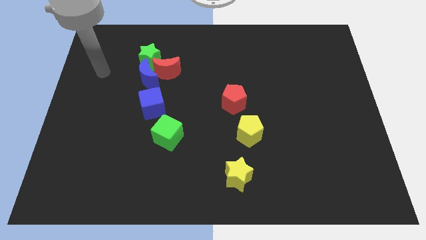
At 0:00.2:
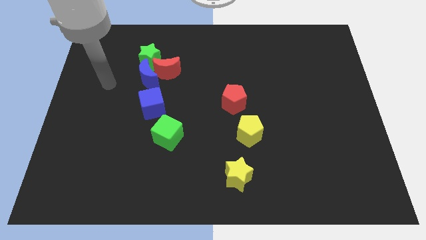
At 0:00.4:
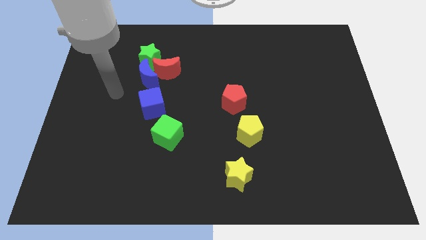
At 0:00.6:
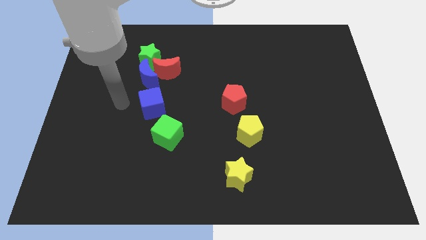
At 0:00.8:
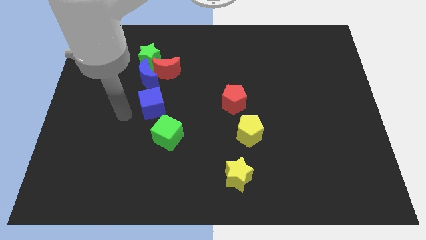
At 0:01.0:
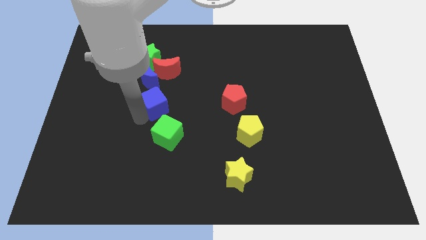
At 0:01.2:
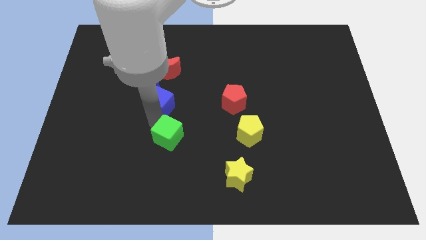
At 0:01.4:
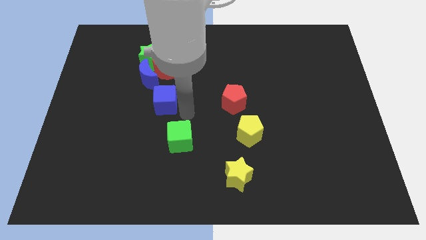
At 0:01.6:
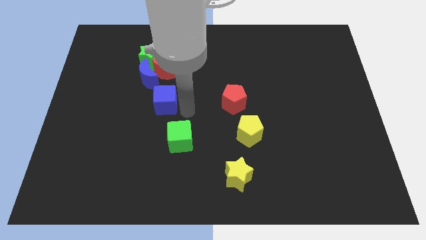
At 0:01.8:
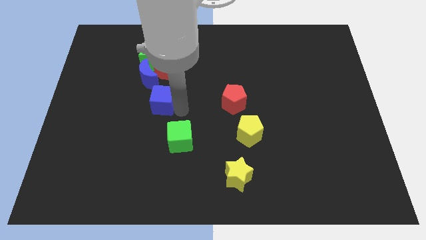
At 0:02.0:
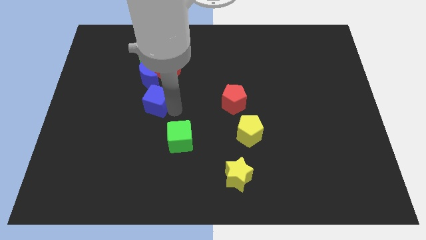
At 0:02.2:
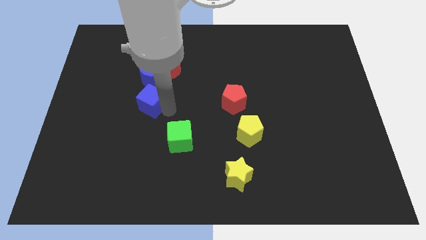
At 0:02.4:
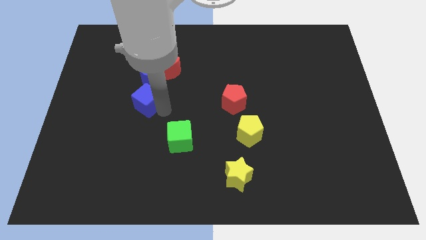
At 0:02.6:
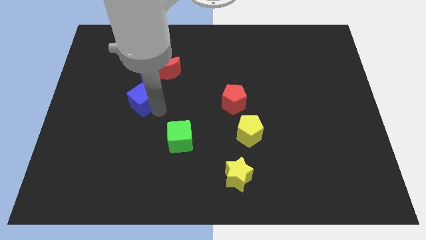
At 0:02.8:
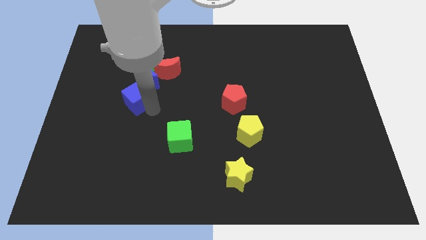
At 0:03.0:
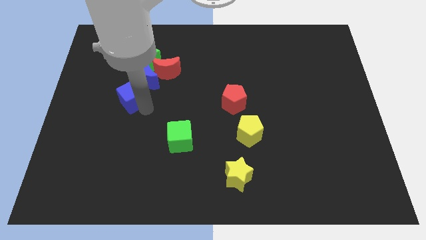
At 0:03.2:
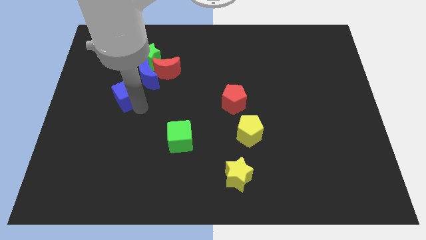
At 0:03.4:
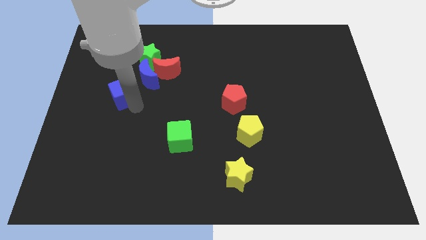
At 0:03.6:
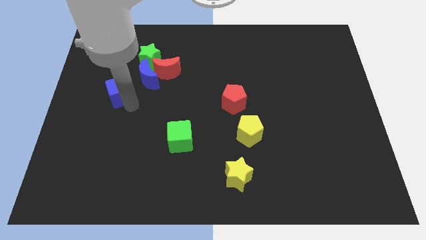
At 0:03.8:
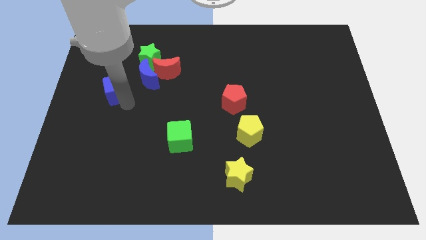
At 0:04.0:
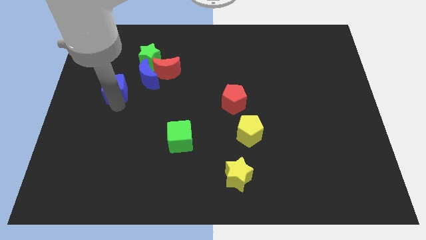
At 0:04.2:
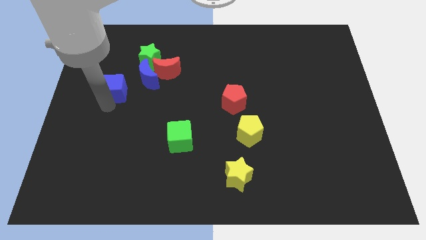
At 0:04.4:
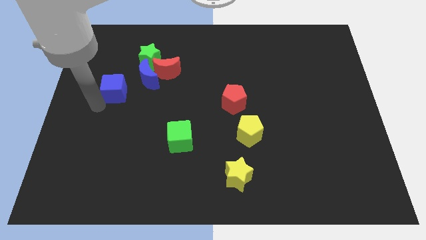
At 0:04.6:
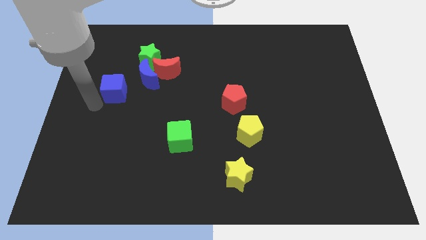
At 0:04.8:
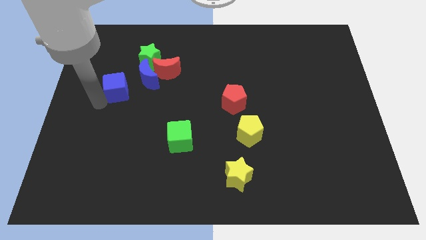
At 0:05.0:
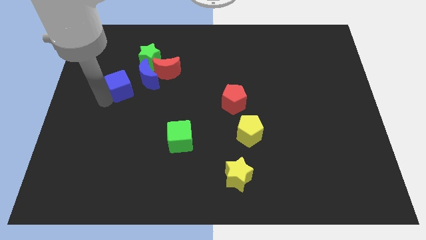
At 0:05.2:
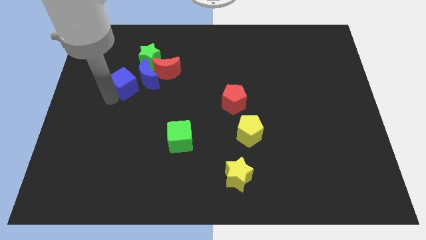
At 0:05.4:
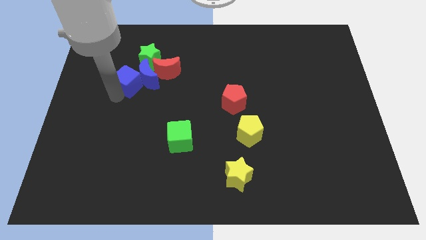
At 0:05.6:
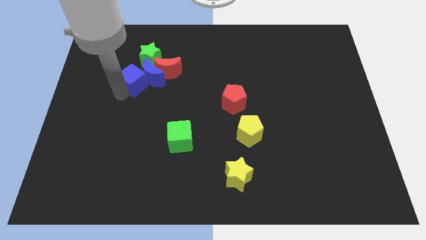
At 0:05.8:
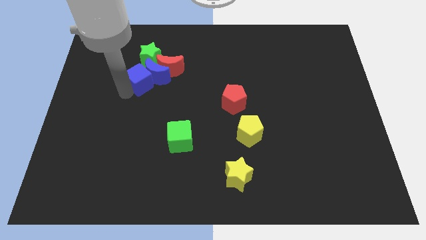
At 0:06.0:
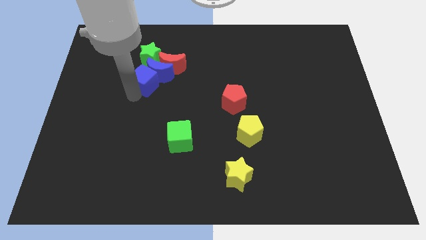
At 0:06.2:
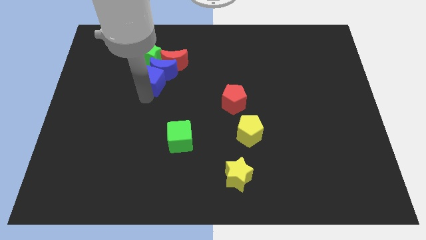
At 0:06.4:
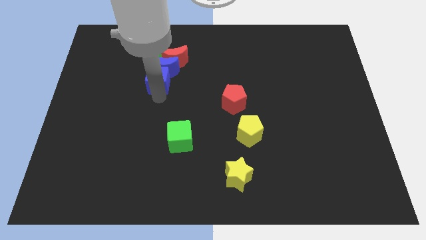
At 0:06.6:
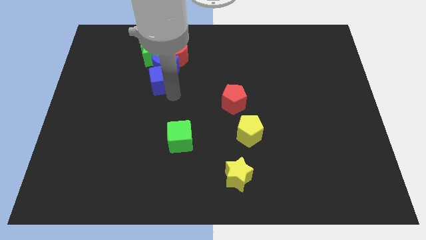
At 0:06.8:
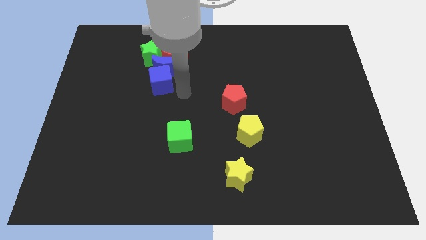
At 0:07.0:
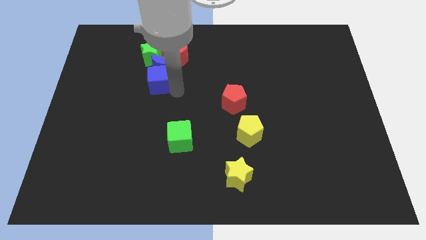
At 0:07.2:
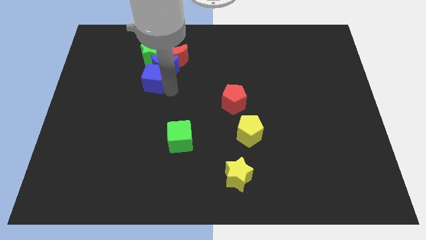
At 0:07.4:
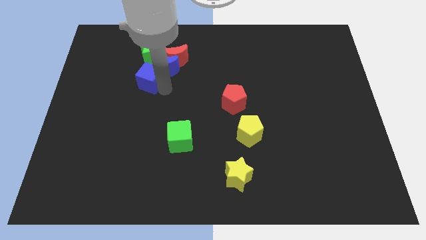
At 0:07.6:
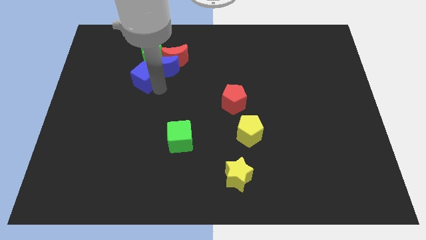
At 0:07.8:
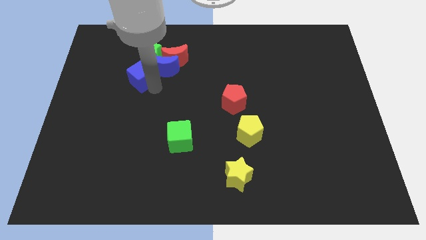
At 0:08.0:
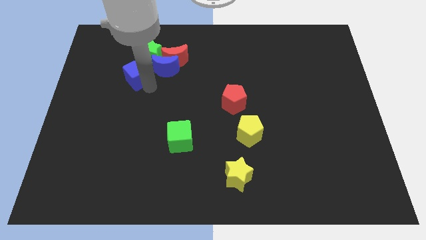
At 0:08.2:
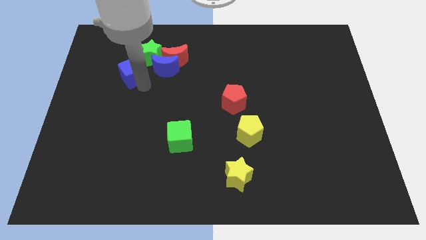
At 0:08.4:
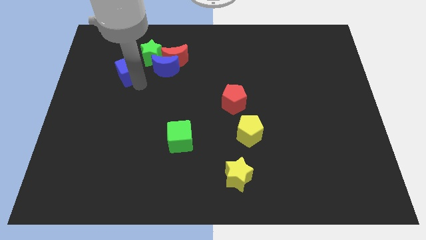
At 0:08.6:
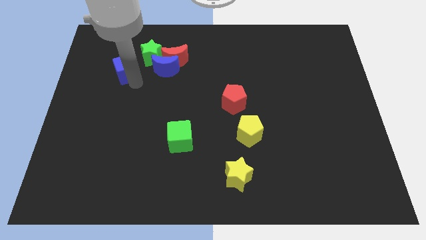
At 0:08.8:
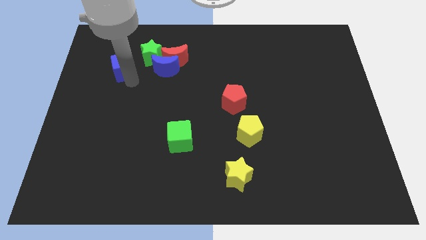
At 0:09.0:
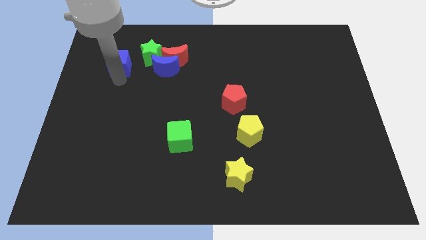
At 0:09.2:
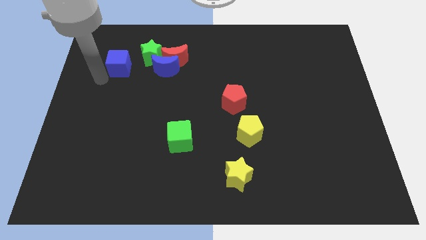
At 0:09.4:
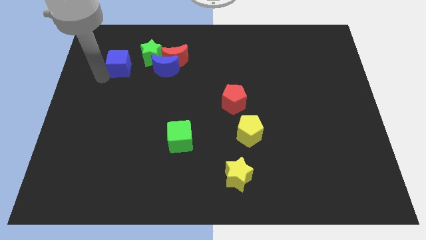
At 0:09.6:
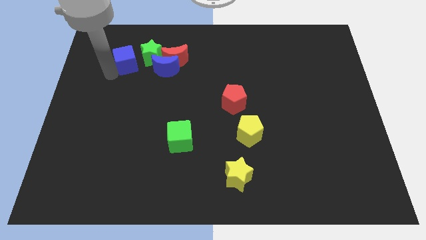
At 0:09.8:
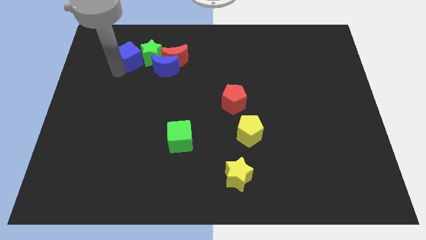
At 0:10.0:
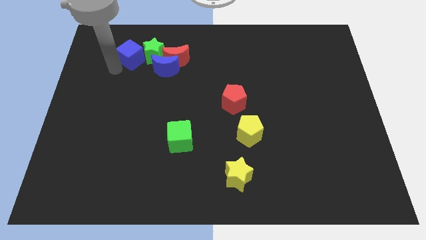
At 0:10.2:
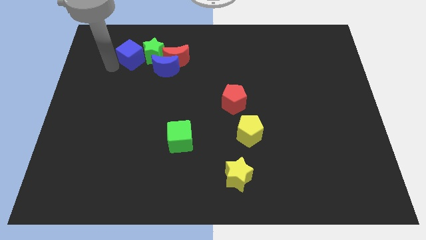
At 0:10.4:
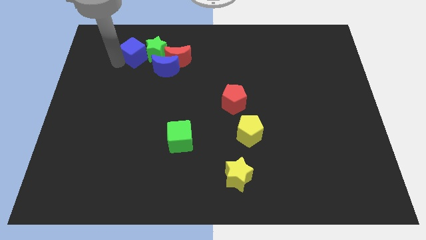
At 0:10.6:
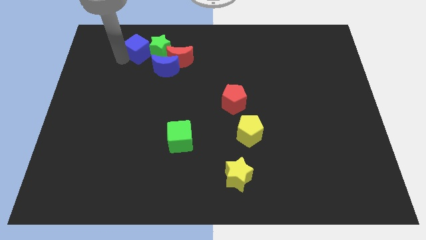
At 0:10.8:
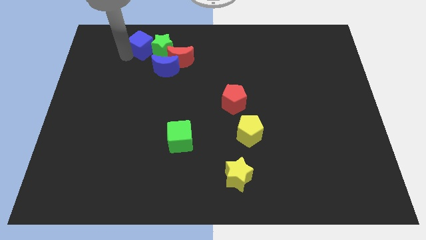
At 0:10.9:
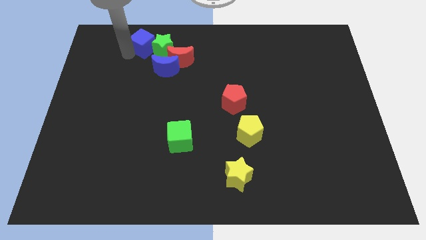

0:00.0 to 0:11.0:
push the blue cube to the top left of the red moon

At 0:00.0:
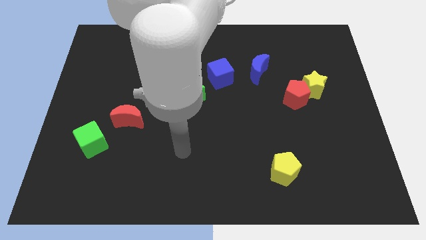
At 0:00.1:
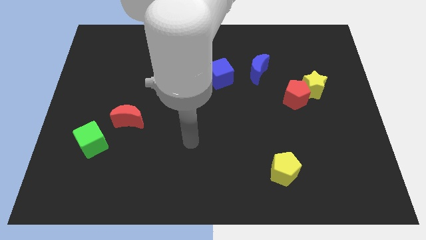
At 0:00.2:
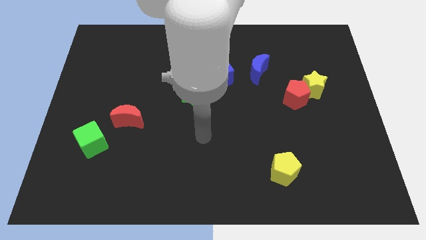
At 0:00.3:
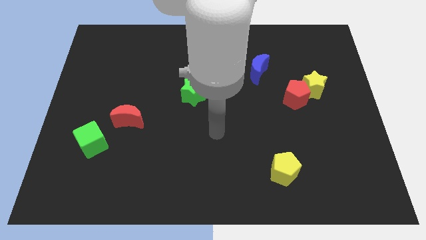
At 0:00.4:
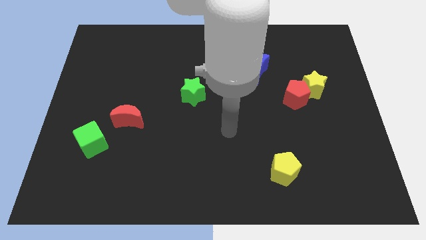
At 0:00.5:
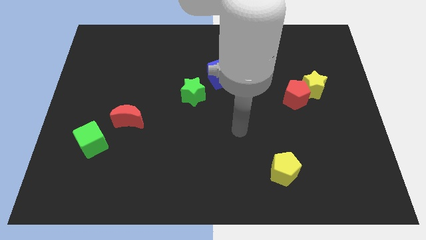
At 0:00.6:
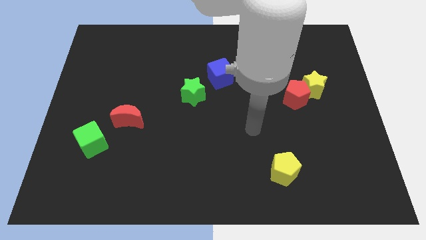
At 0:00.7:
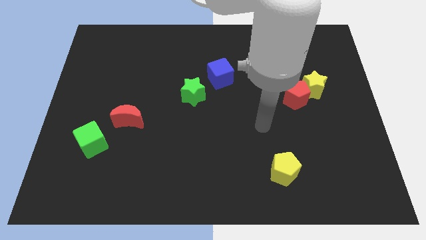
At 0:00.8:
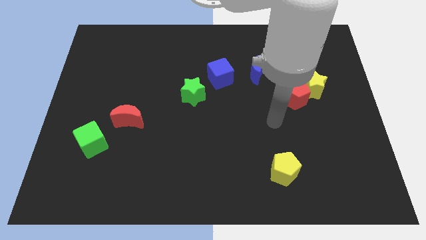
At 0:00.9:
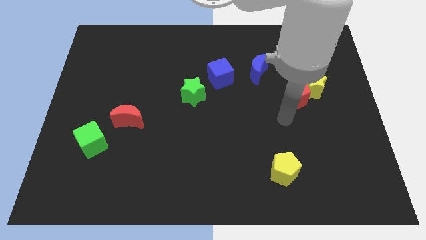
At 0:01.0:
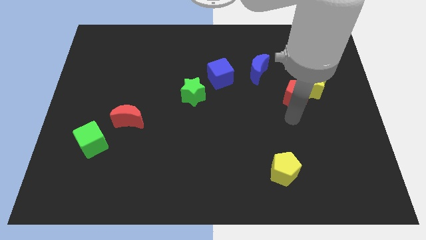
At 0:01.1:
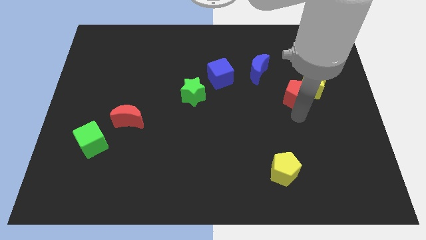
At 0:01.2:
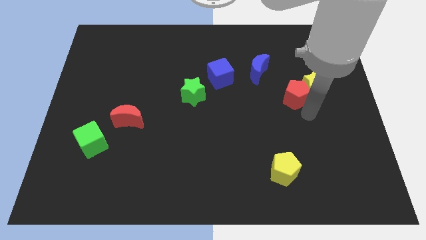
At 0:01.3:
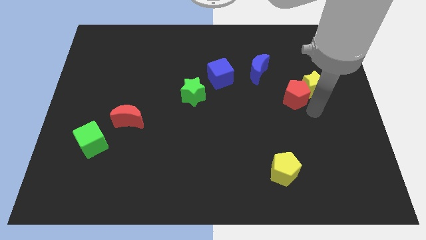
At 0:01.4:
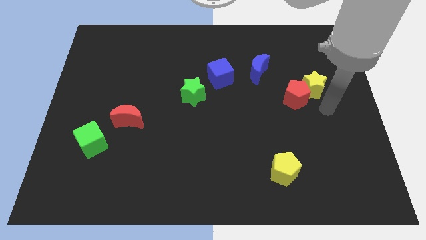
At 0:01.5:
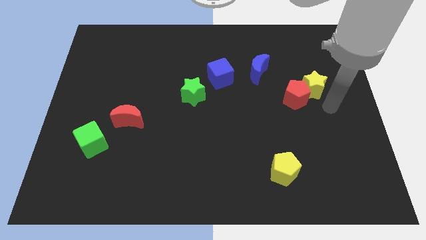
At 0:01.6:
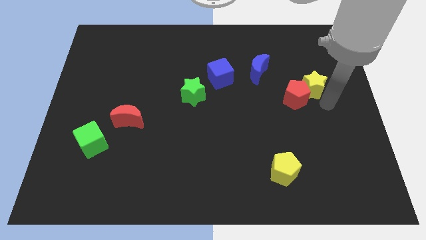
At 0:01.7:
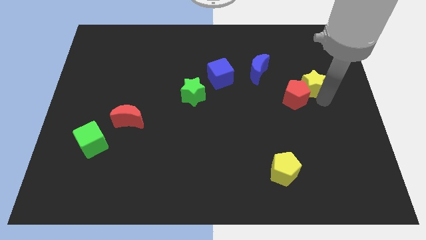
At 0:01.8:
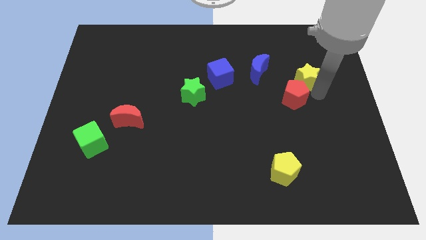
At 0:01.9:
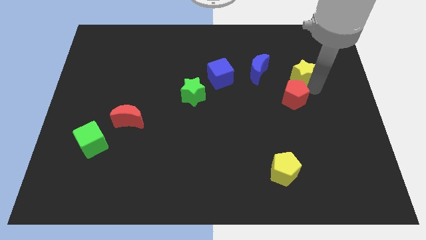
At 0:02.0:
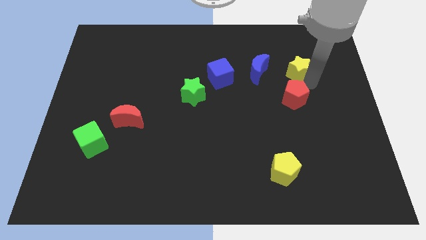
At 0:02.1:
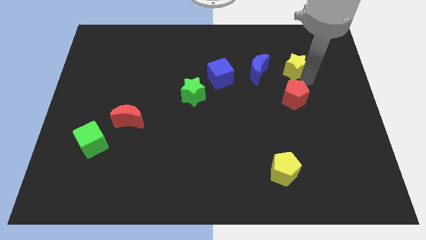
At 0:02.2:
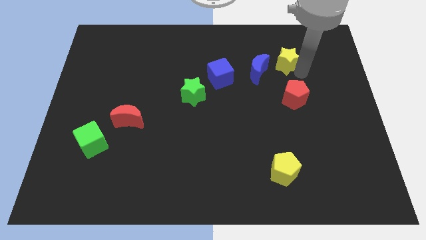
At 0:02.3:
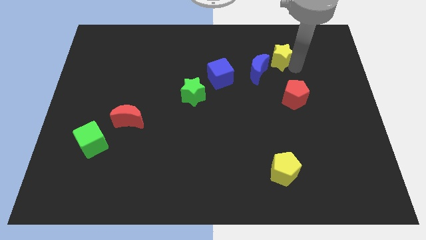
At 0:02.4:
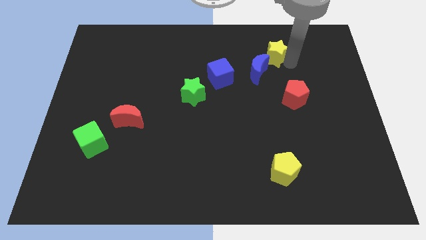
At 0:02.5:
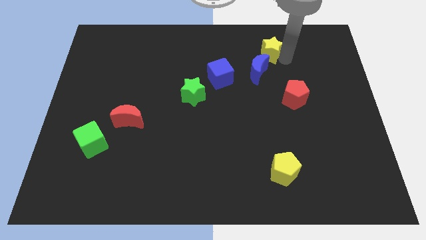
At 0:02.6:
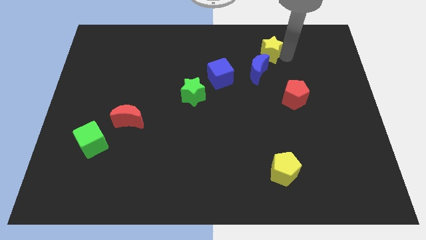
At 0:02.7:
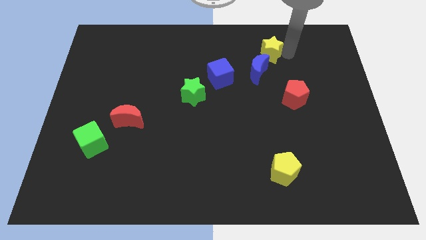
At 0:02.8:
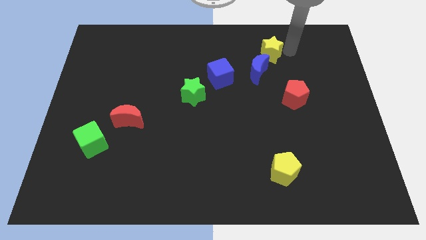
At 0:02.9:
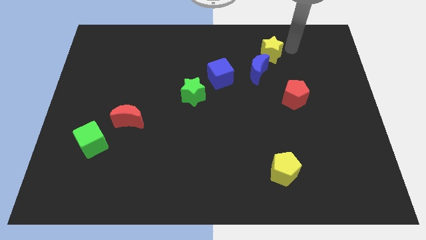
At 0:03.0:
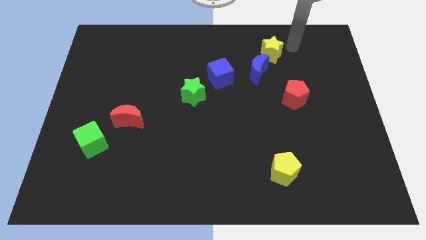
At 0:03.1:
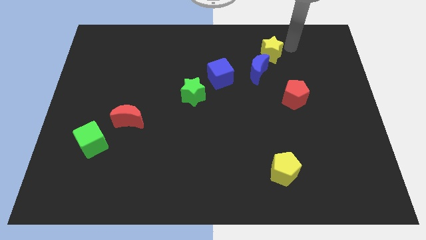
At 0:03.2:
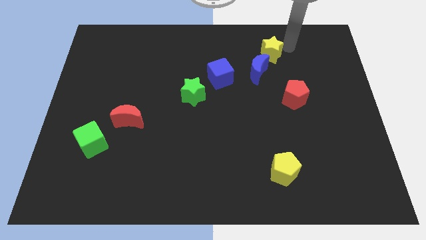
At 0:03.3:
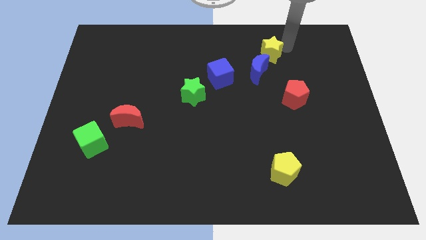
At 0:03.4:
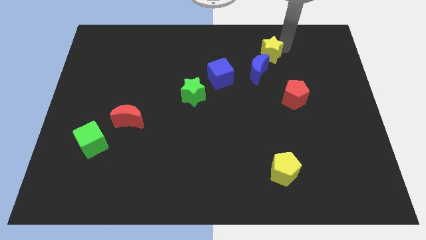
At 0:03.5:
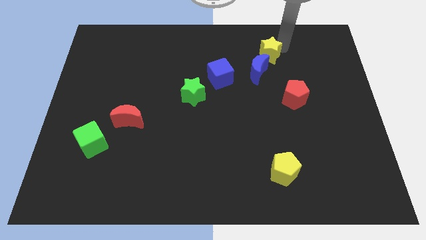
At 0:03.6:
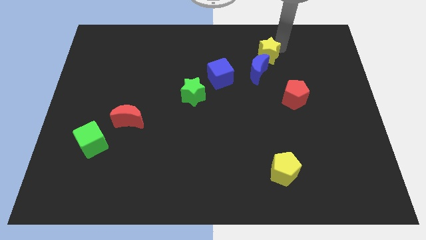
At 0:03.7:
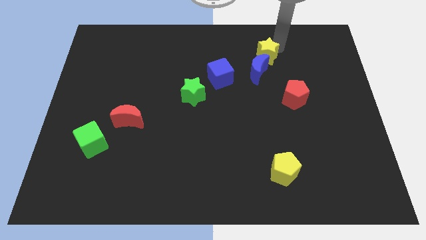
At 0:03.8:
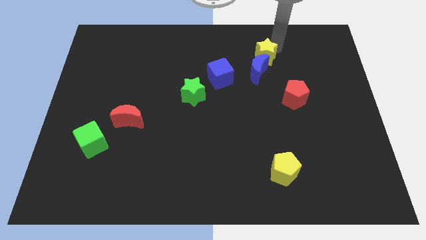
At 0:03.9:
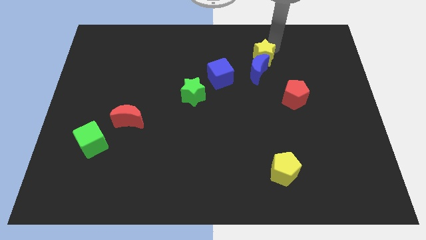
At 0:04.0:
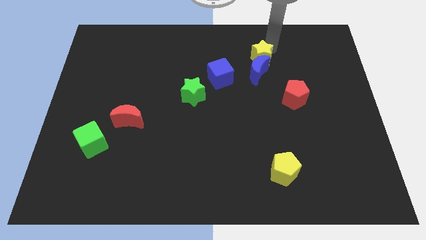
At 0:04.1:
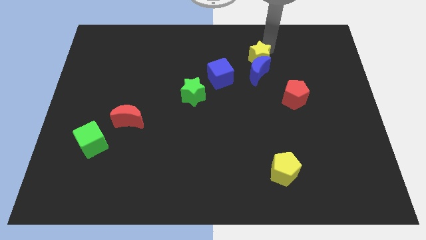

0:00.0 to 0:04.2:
push the yellow star diagonally up and to the right of the blue cube
